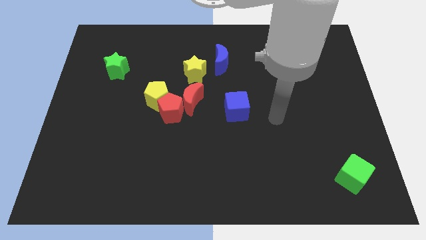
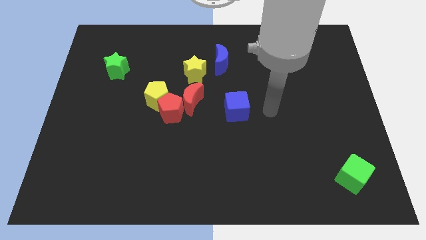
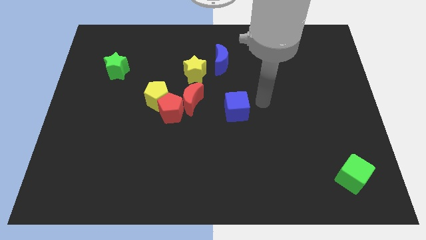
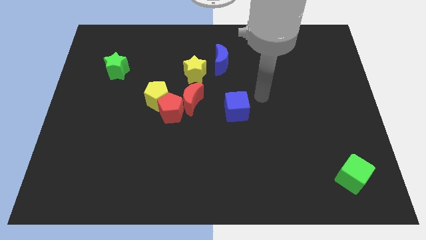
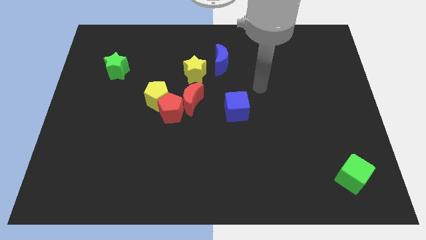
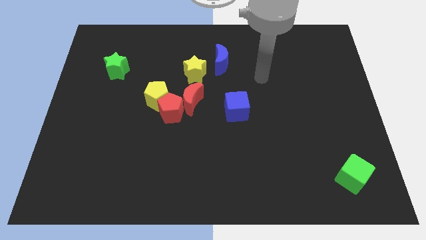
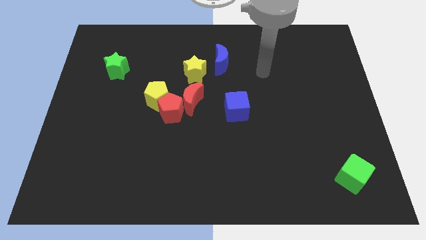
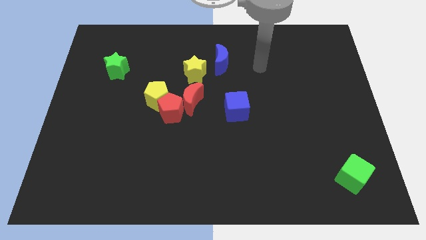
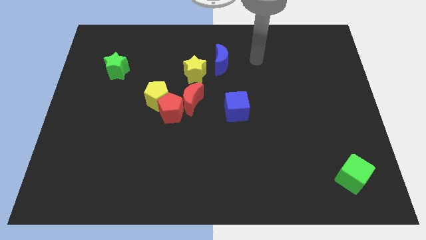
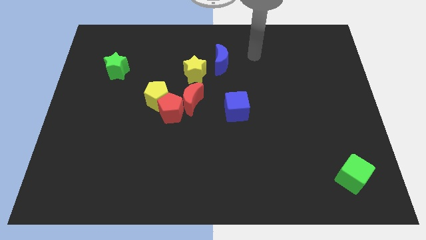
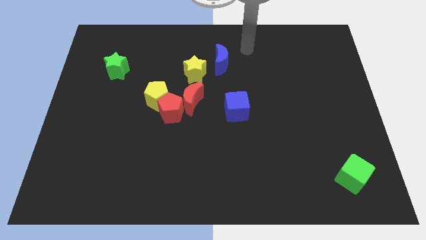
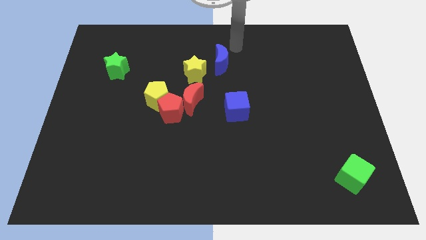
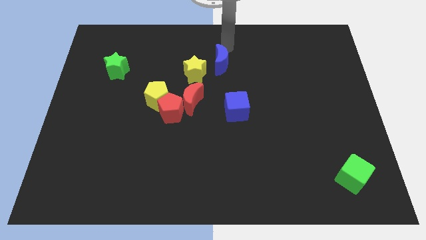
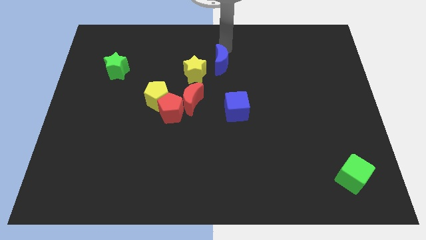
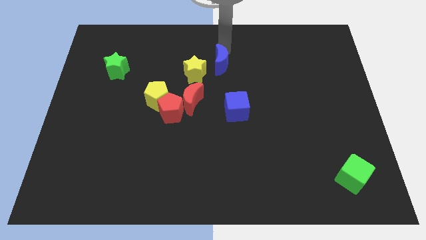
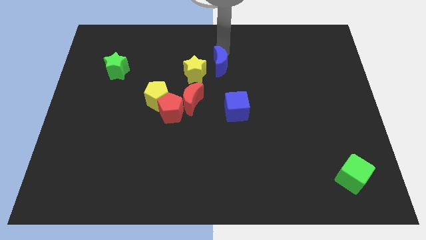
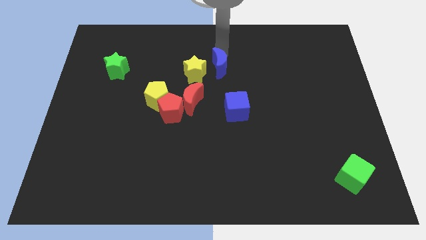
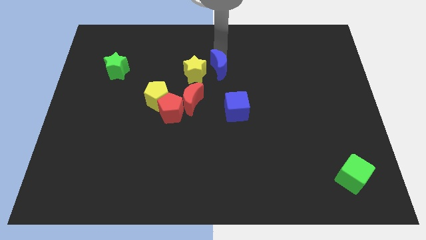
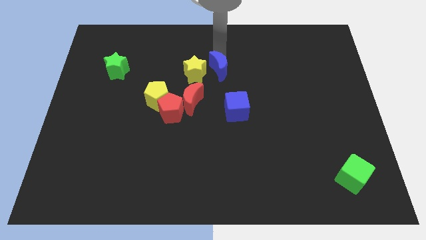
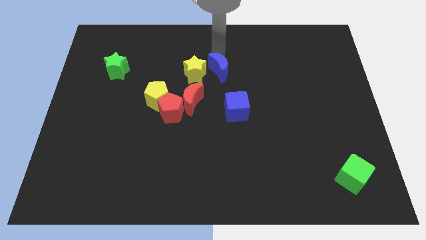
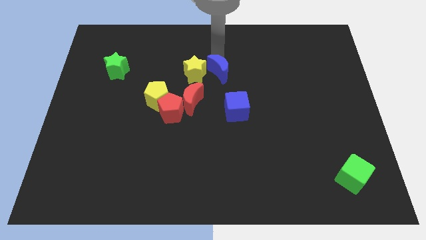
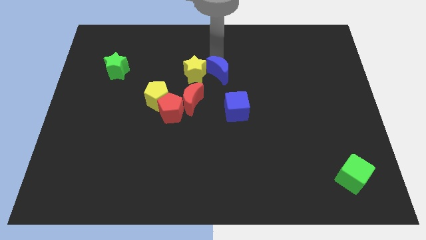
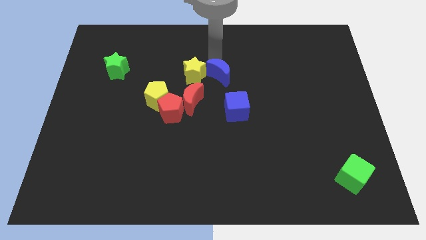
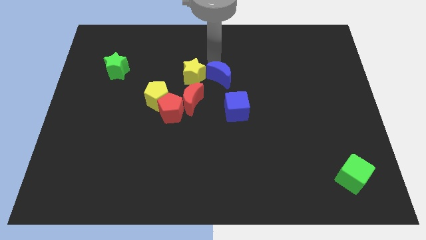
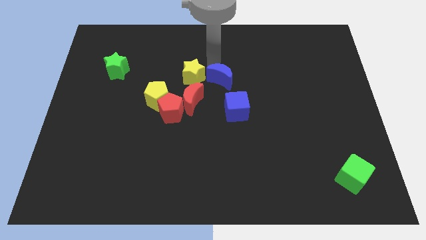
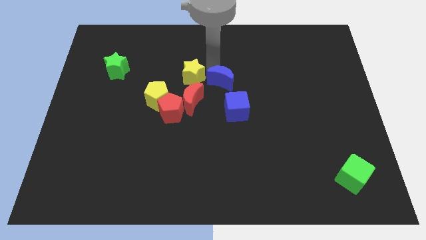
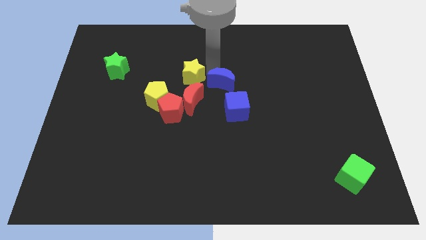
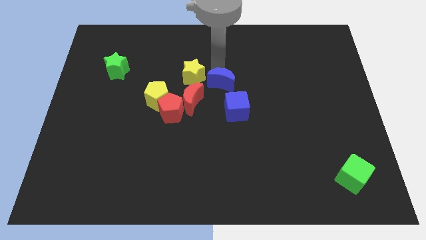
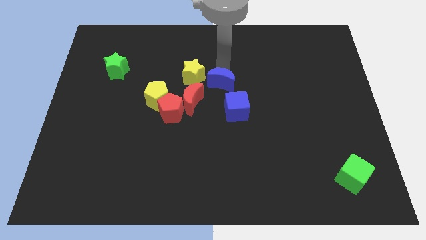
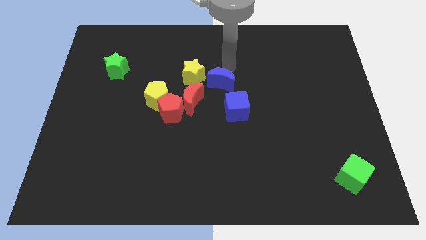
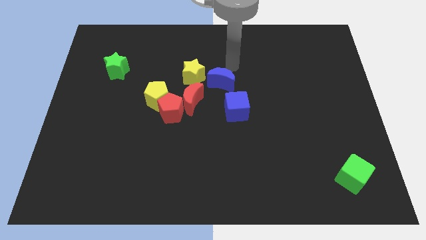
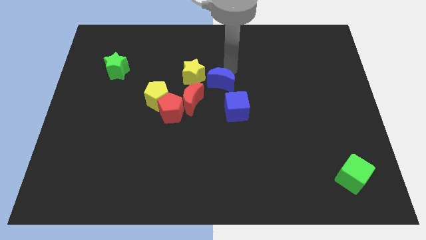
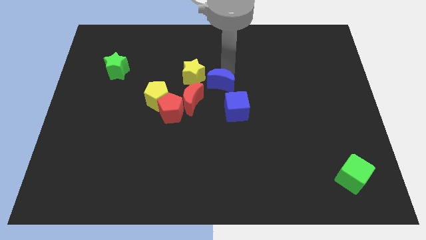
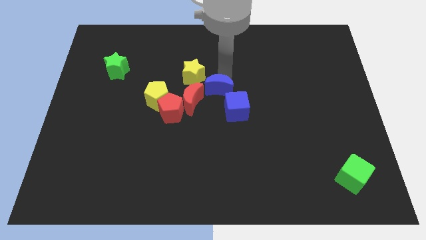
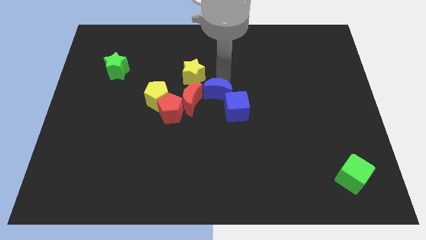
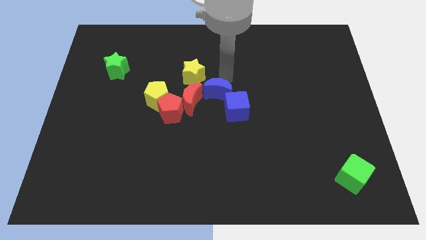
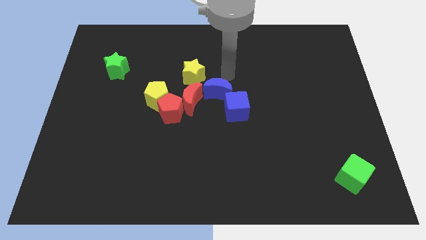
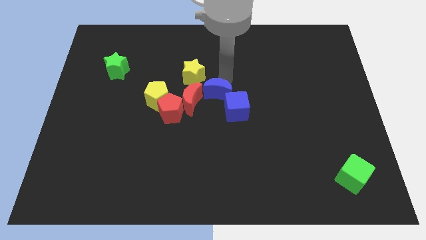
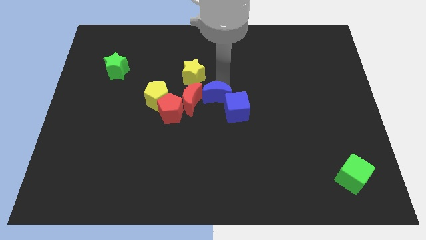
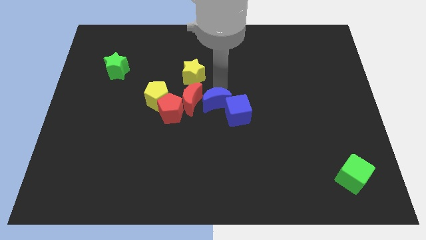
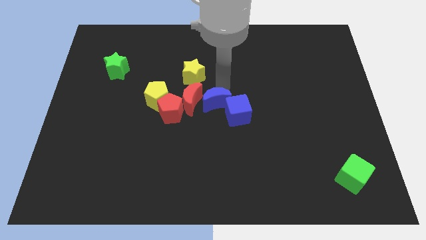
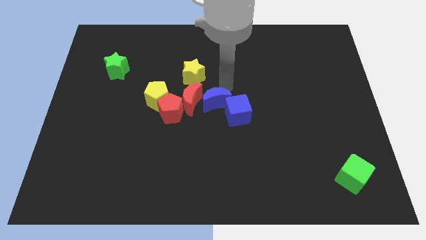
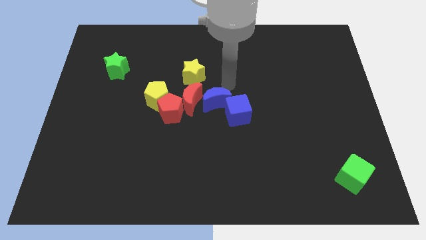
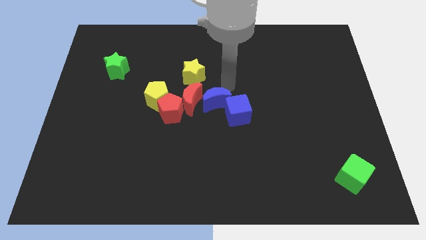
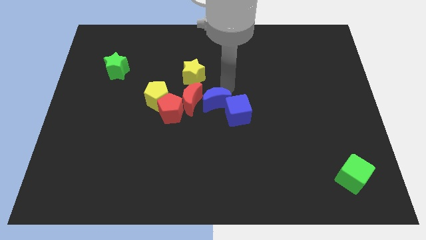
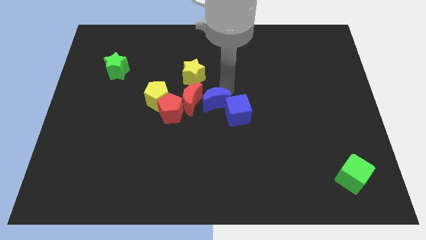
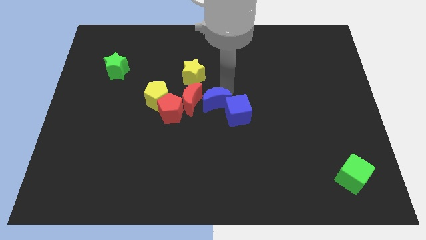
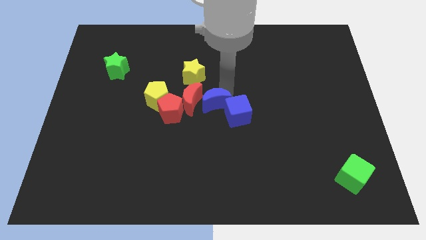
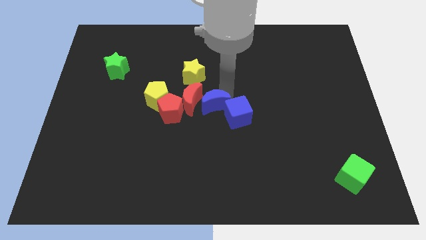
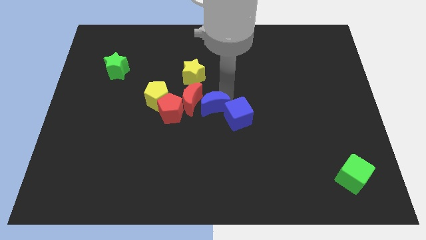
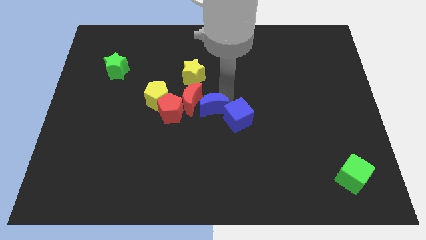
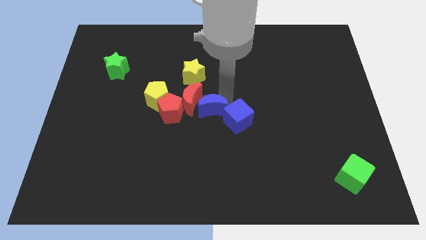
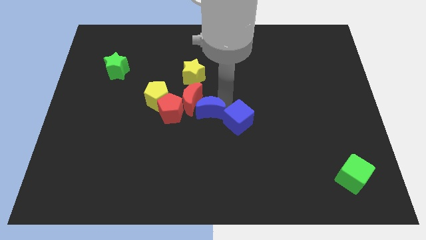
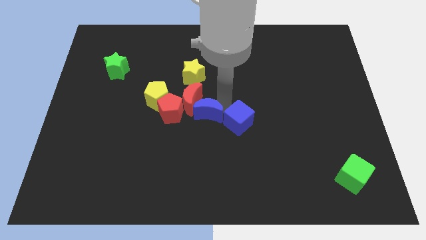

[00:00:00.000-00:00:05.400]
slide the blue moon to the bottom side of the red moon

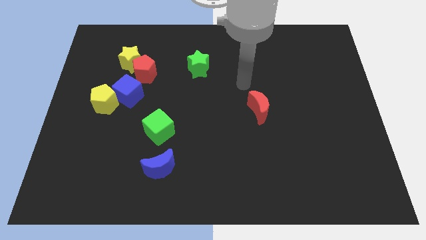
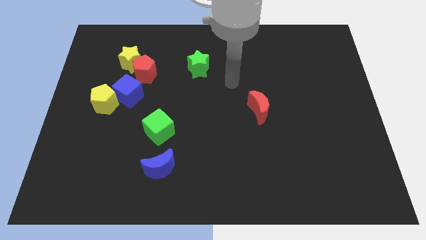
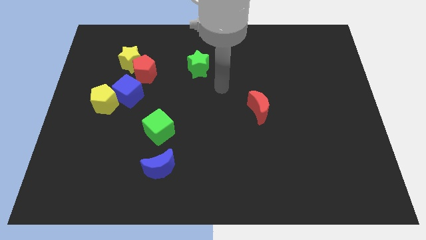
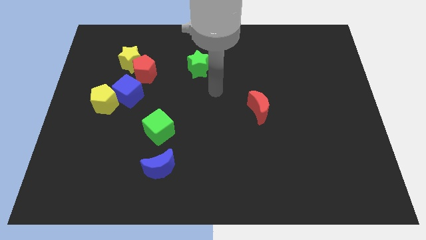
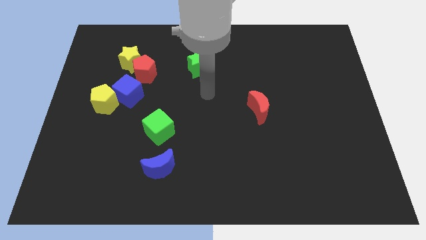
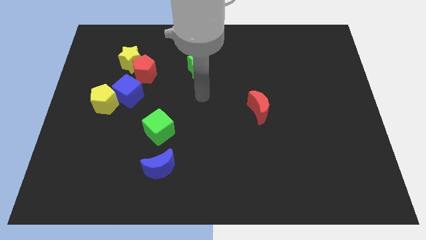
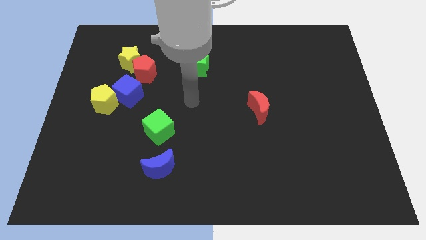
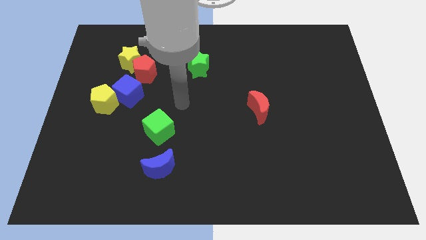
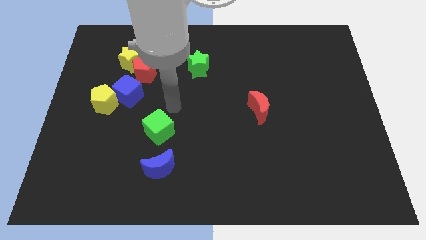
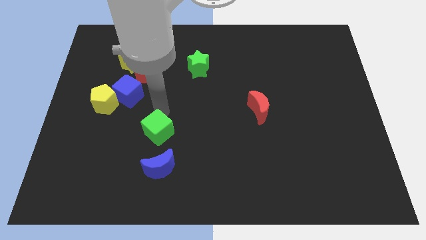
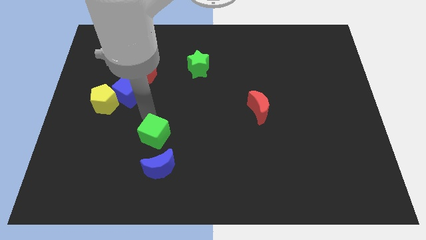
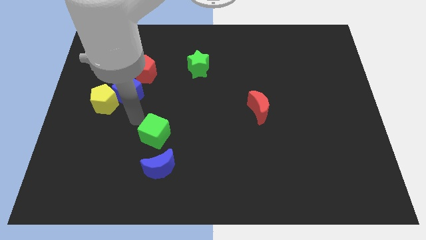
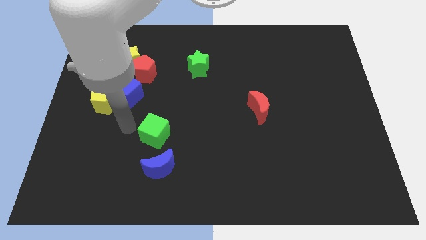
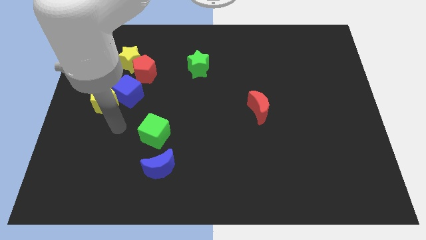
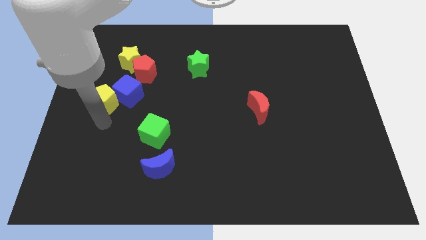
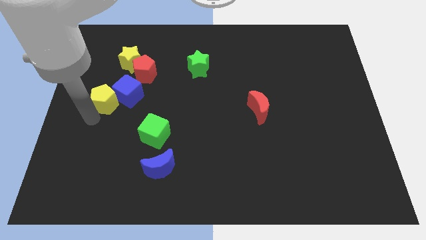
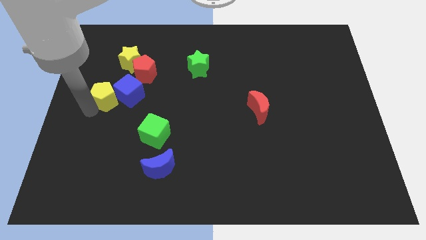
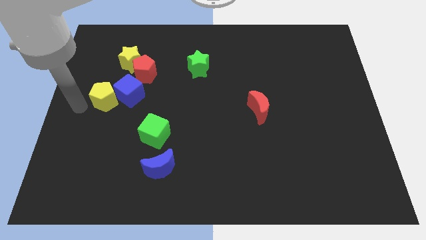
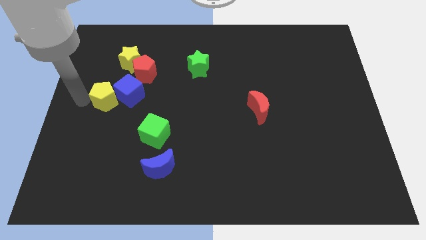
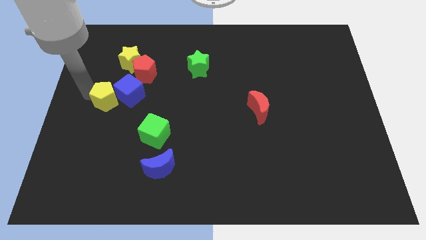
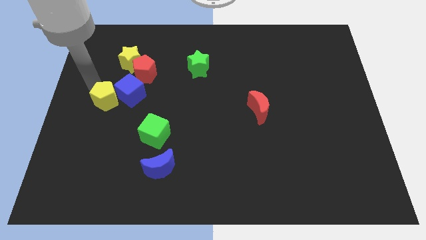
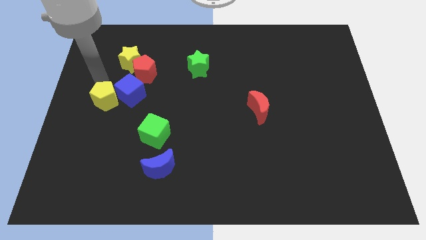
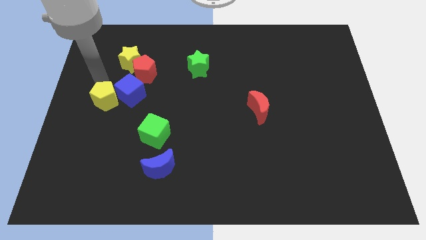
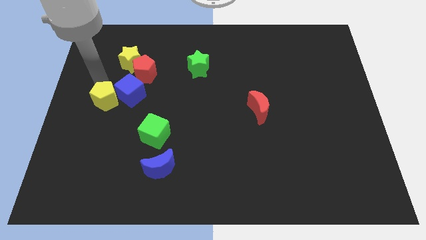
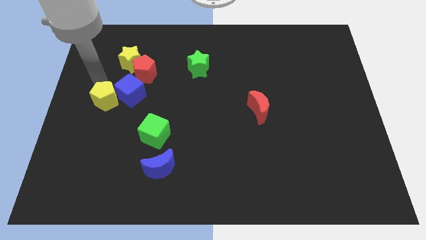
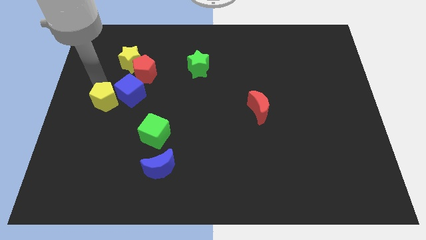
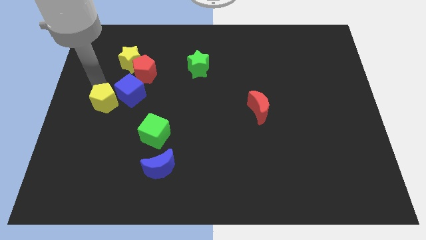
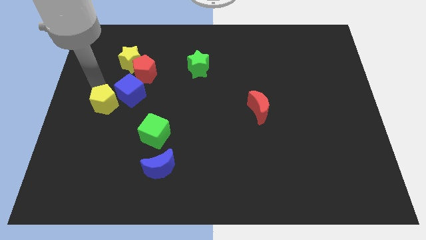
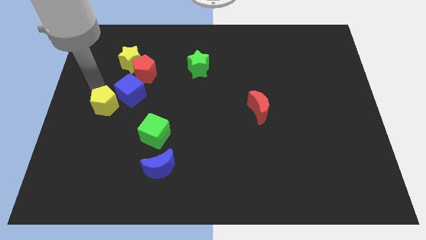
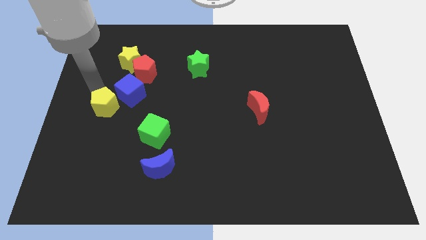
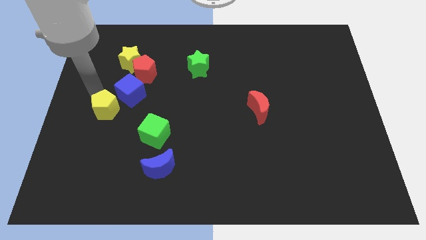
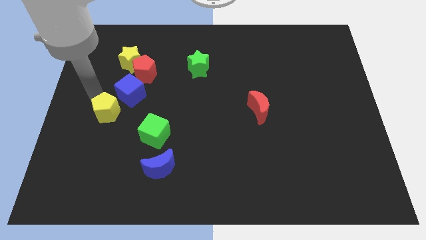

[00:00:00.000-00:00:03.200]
put the yellow pentagon to the bottom side of the blue cube
